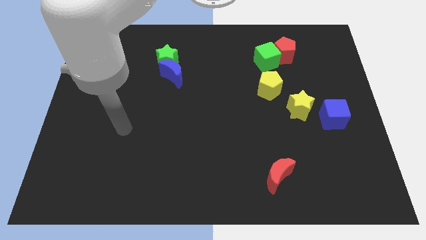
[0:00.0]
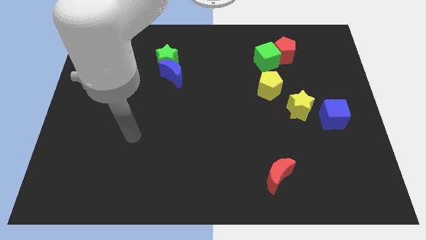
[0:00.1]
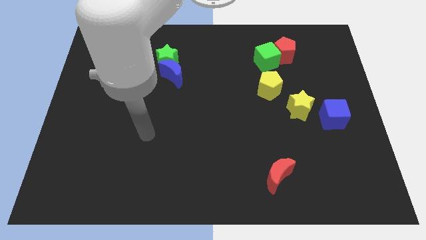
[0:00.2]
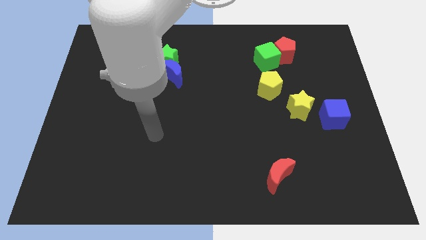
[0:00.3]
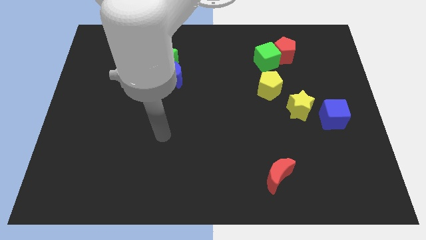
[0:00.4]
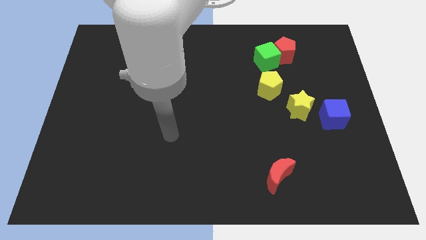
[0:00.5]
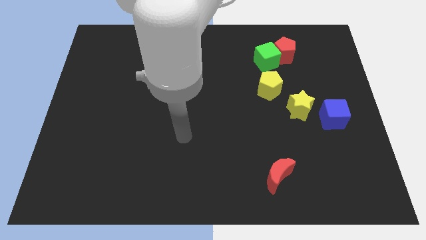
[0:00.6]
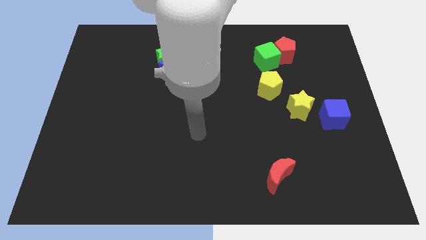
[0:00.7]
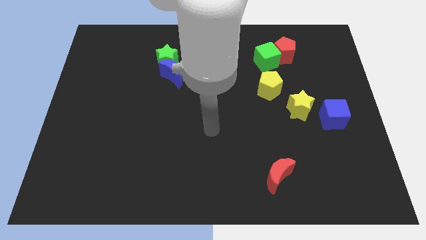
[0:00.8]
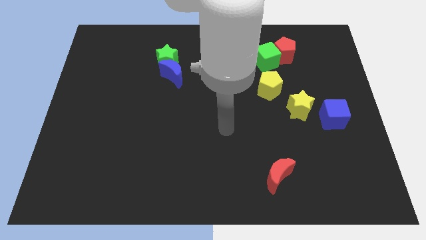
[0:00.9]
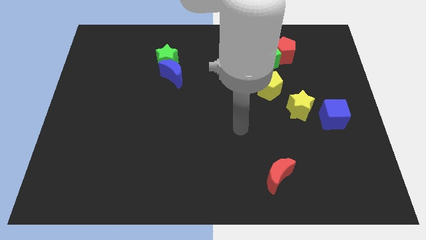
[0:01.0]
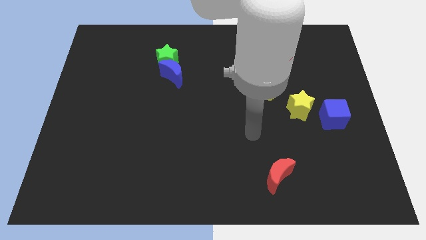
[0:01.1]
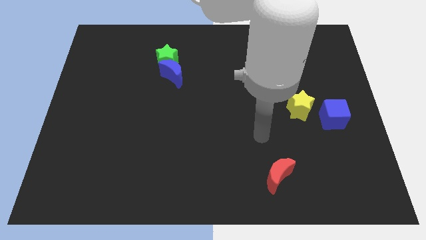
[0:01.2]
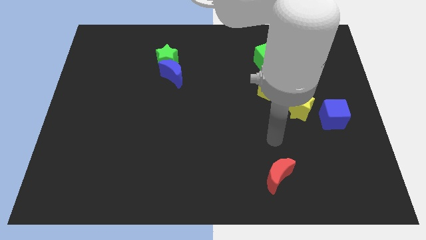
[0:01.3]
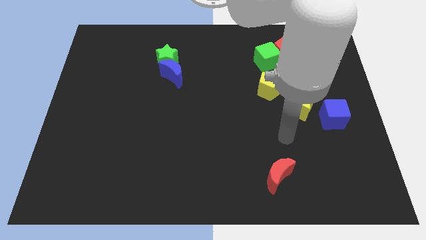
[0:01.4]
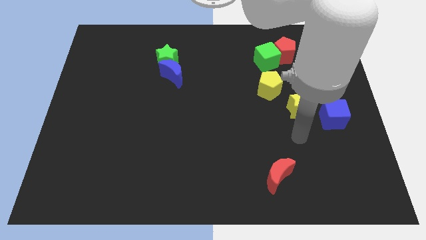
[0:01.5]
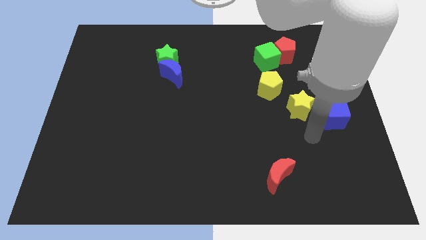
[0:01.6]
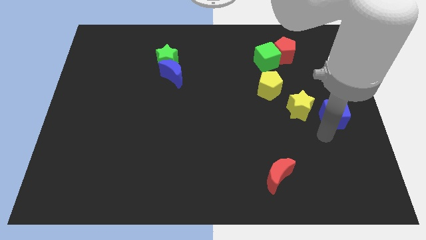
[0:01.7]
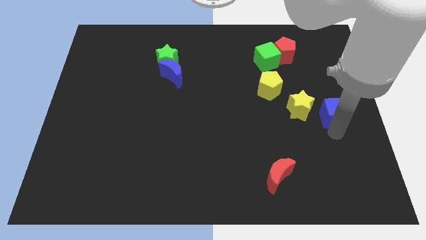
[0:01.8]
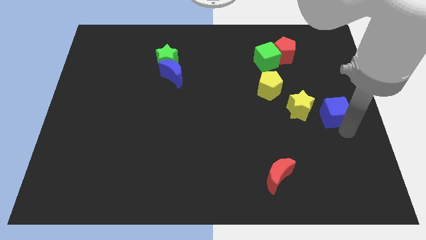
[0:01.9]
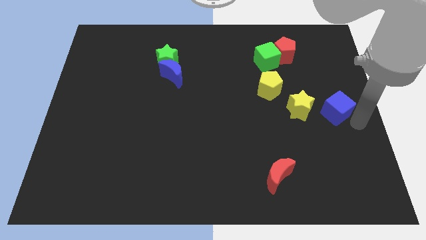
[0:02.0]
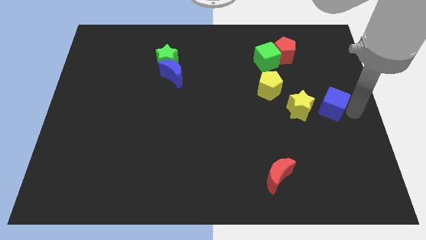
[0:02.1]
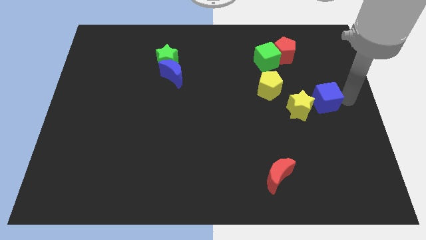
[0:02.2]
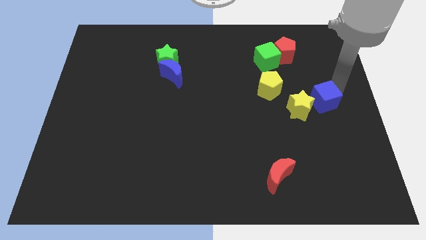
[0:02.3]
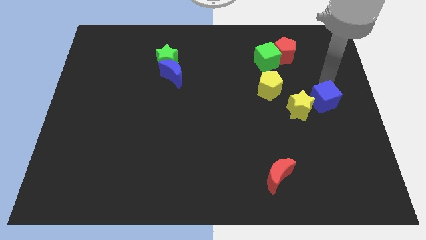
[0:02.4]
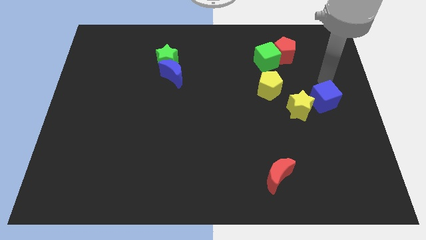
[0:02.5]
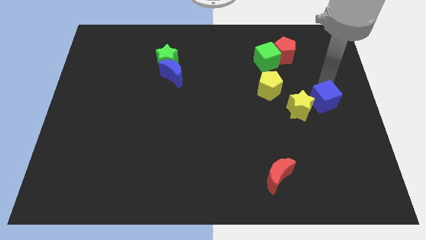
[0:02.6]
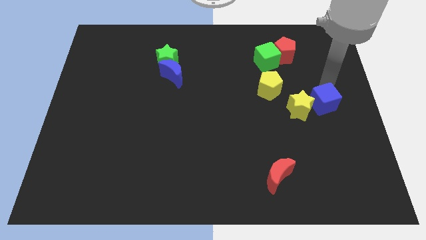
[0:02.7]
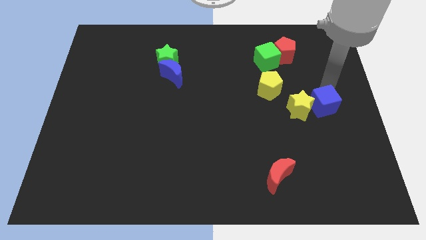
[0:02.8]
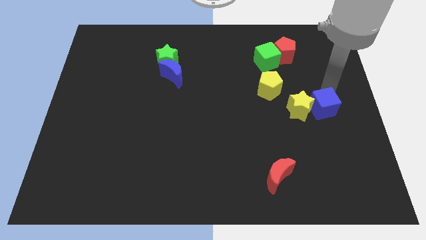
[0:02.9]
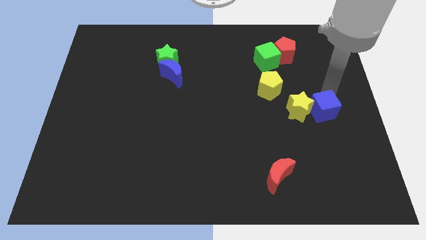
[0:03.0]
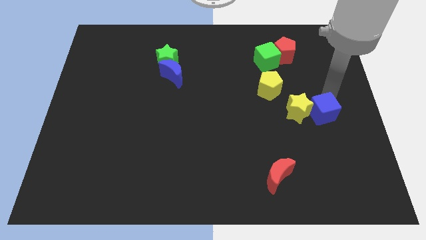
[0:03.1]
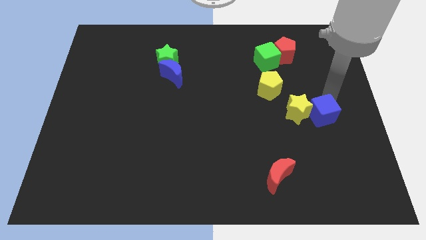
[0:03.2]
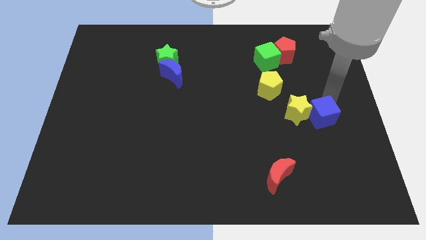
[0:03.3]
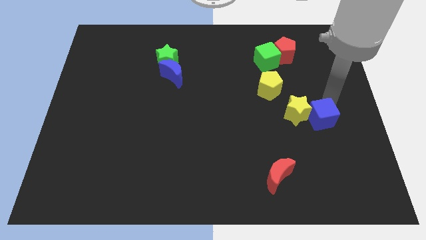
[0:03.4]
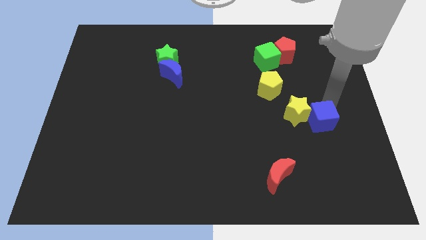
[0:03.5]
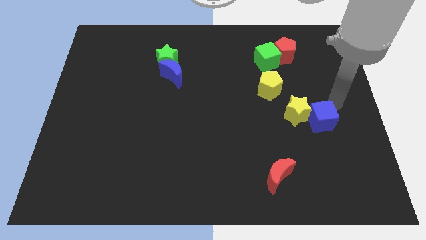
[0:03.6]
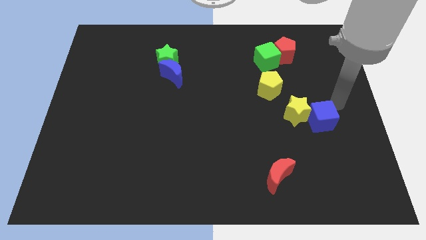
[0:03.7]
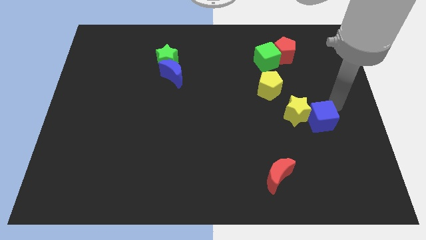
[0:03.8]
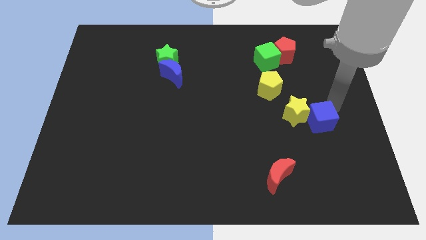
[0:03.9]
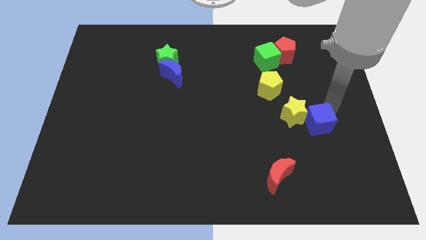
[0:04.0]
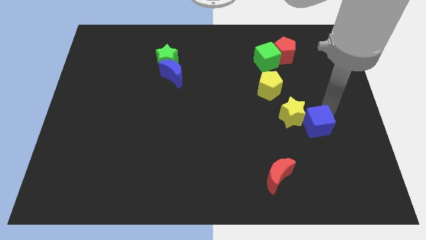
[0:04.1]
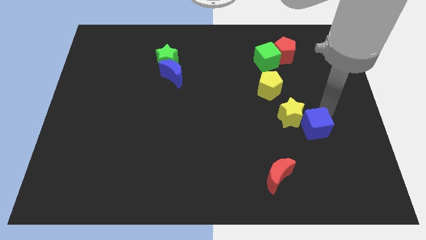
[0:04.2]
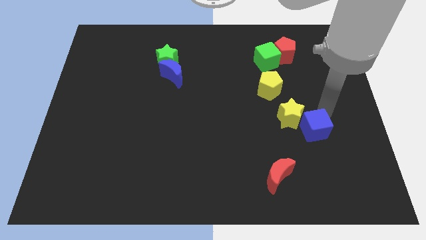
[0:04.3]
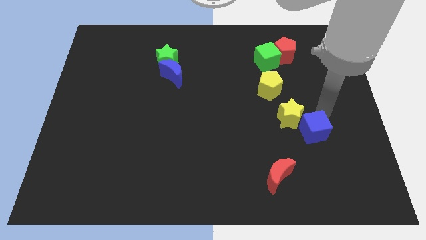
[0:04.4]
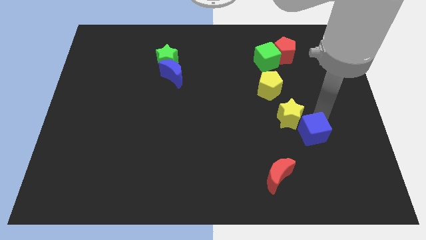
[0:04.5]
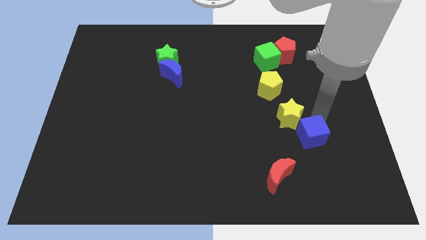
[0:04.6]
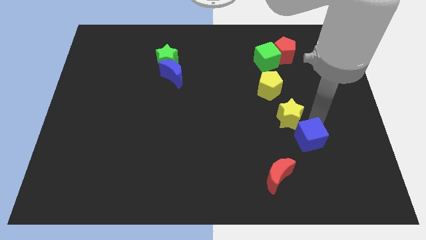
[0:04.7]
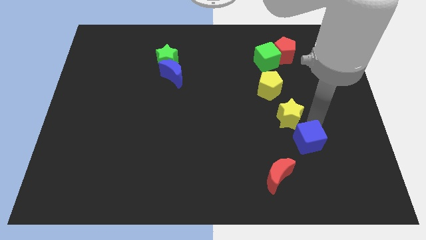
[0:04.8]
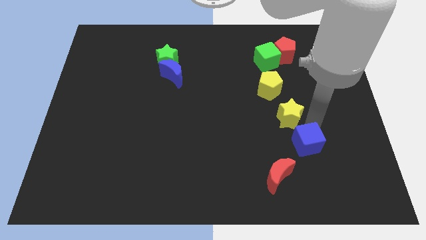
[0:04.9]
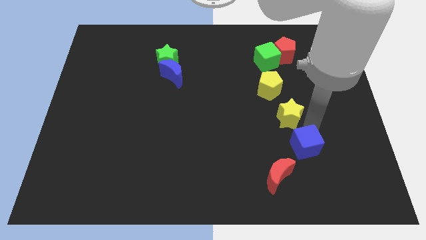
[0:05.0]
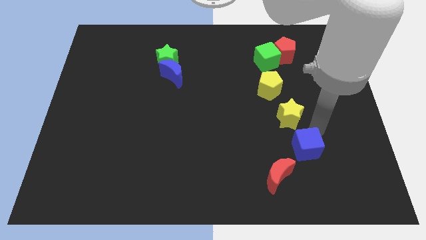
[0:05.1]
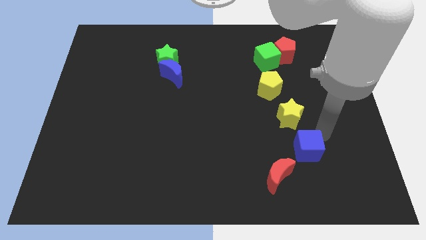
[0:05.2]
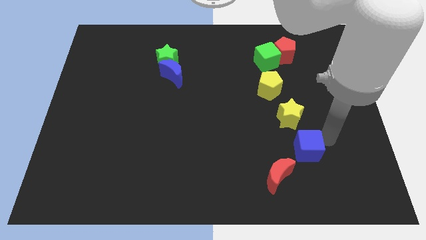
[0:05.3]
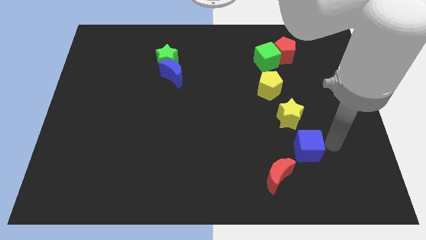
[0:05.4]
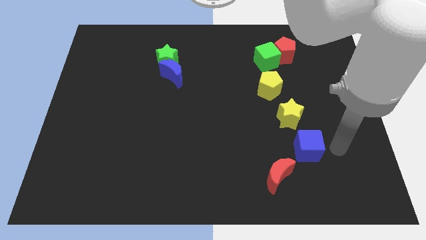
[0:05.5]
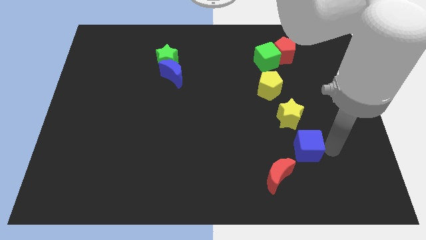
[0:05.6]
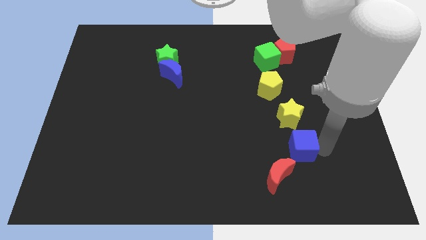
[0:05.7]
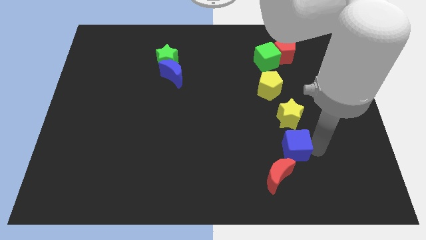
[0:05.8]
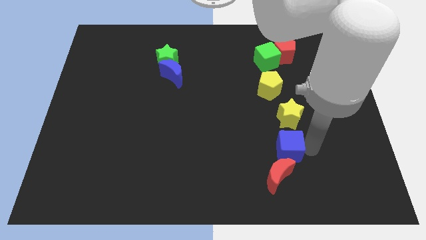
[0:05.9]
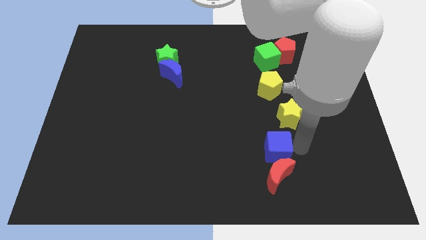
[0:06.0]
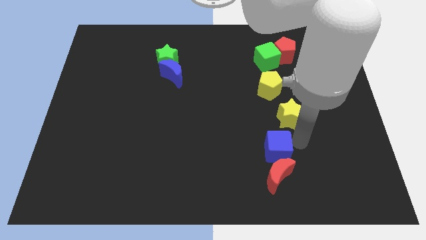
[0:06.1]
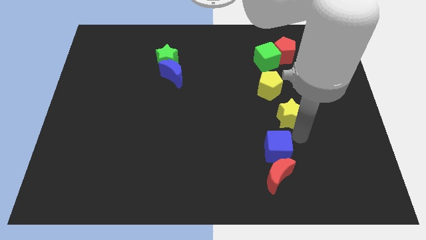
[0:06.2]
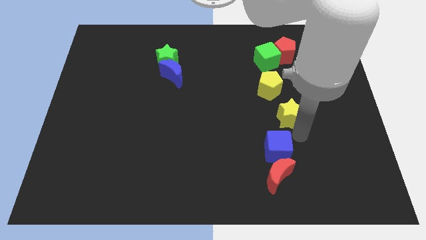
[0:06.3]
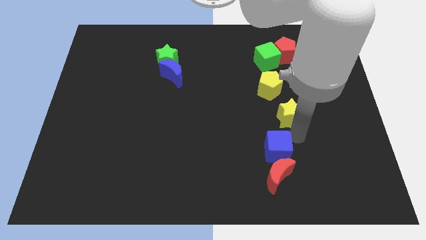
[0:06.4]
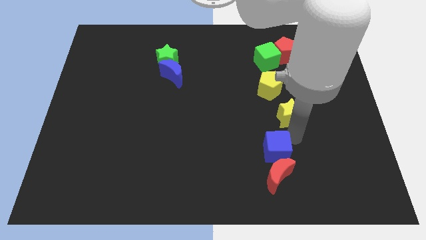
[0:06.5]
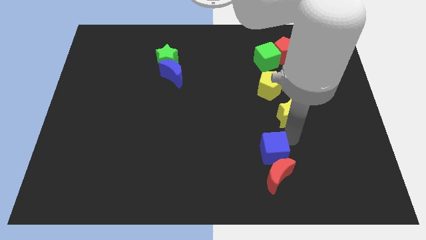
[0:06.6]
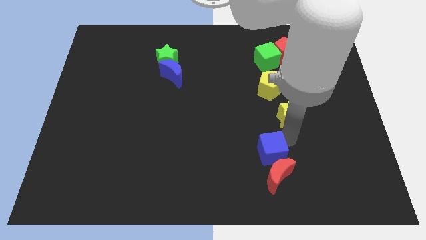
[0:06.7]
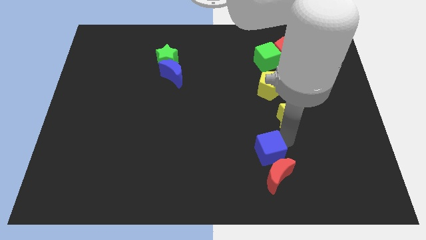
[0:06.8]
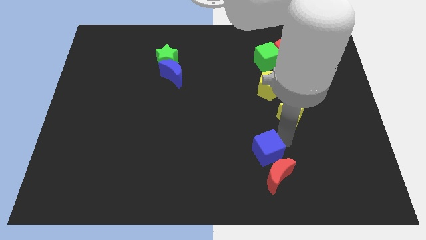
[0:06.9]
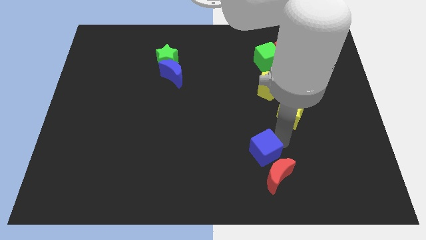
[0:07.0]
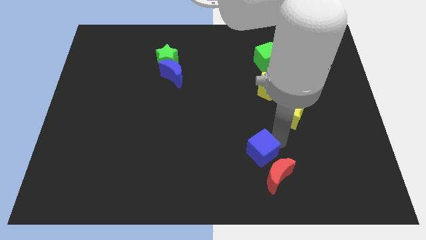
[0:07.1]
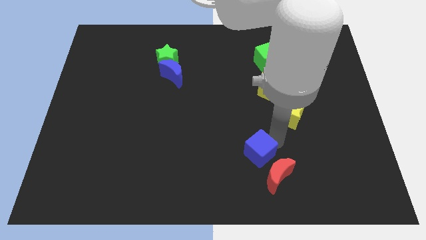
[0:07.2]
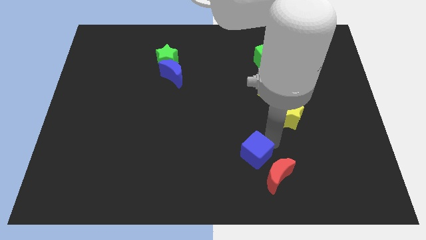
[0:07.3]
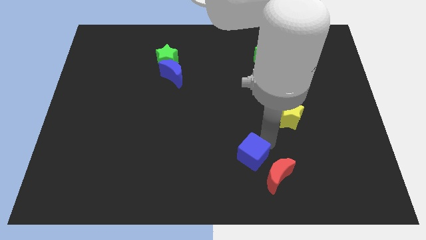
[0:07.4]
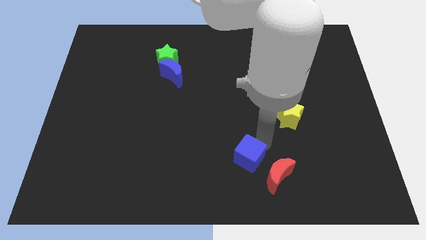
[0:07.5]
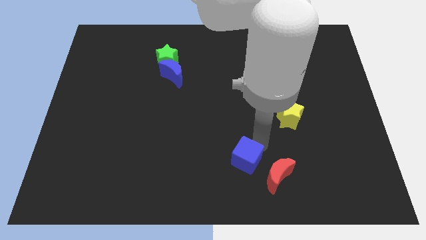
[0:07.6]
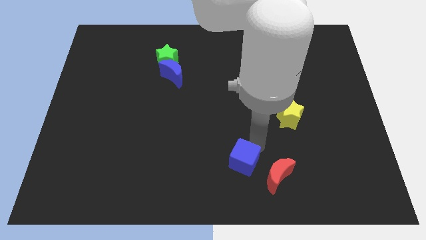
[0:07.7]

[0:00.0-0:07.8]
move the blue cube to the bottom

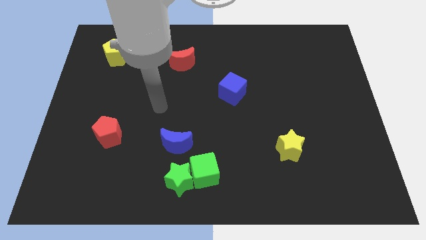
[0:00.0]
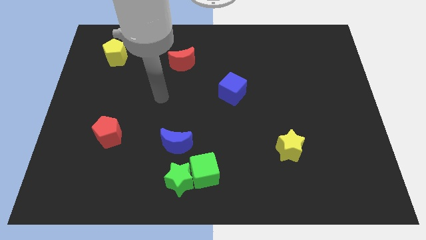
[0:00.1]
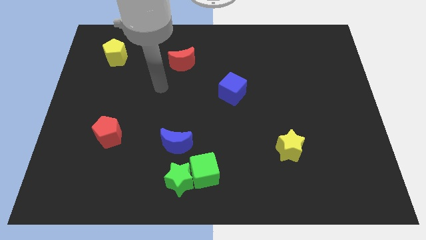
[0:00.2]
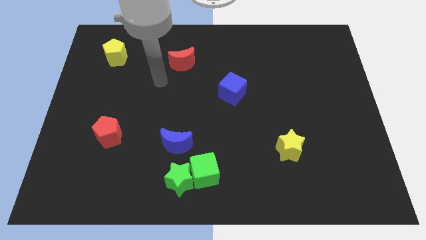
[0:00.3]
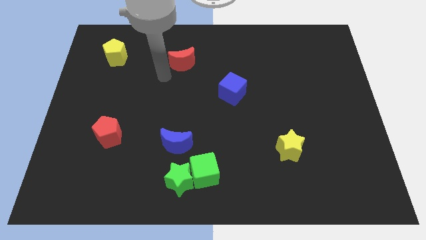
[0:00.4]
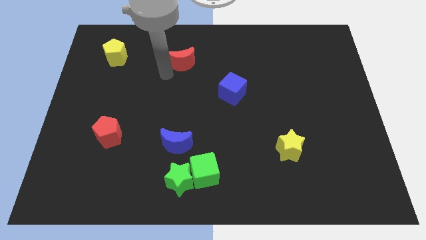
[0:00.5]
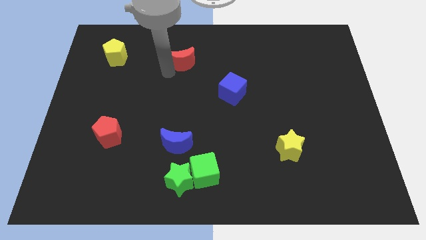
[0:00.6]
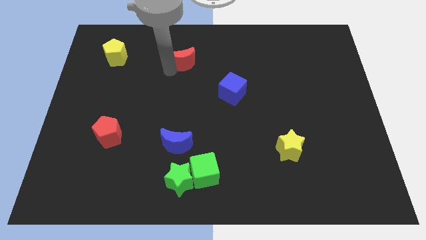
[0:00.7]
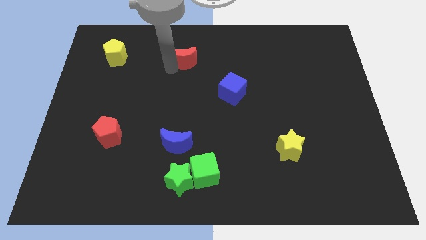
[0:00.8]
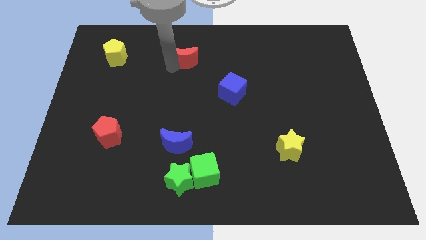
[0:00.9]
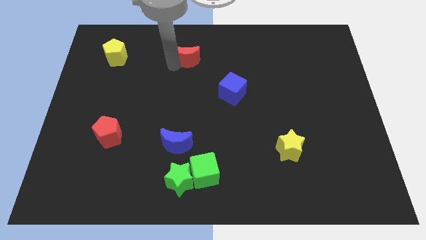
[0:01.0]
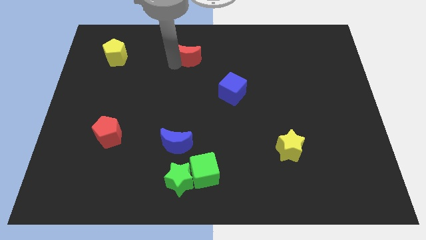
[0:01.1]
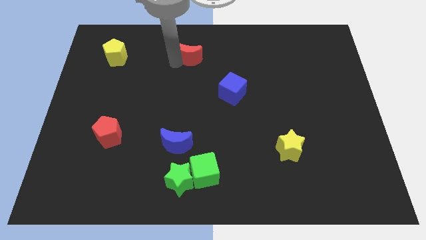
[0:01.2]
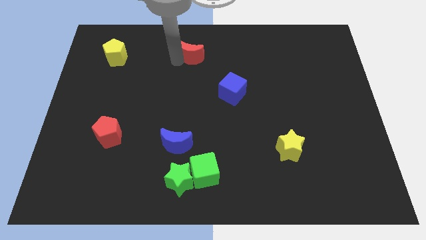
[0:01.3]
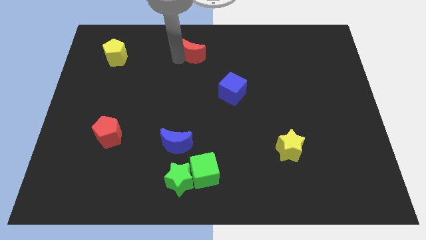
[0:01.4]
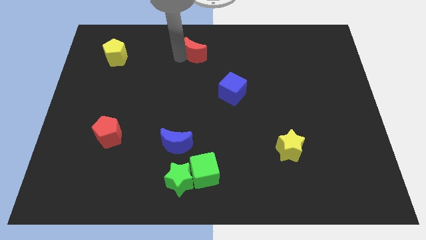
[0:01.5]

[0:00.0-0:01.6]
push the red moon to the towards your base
